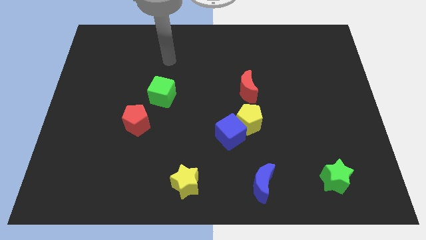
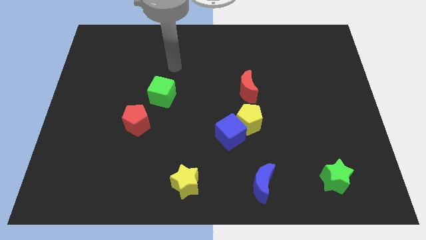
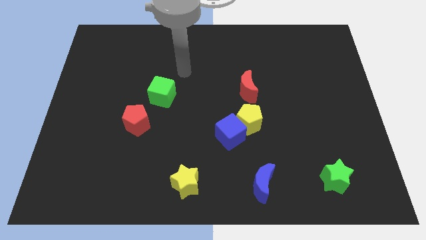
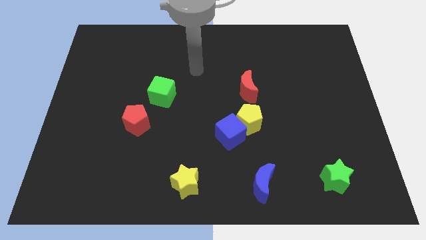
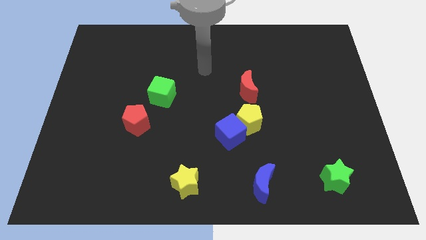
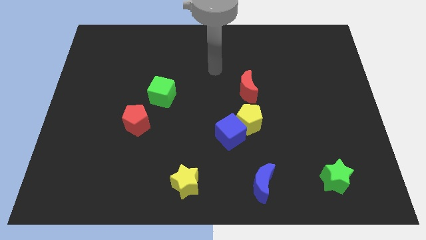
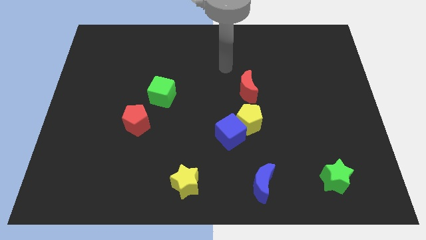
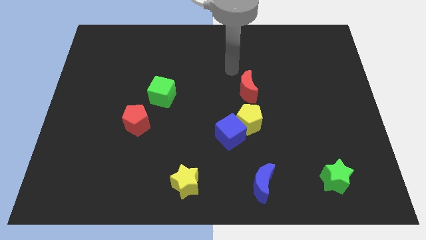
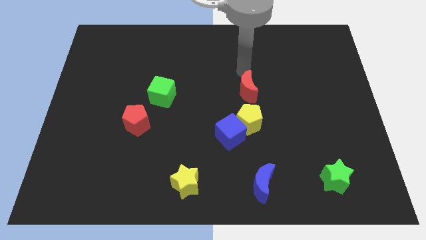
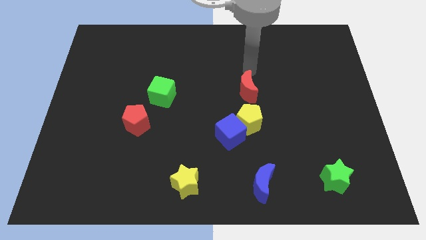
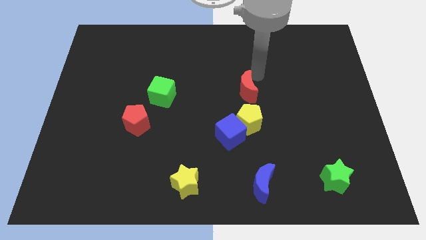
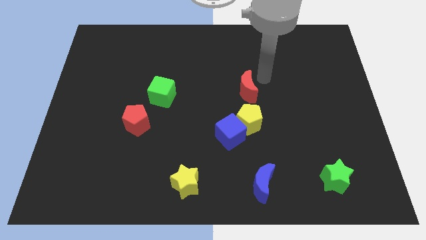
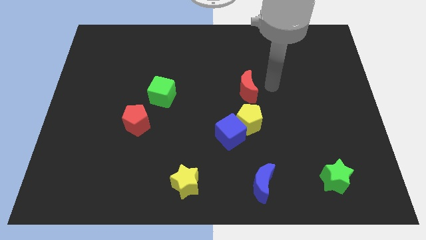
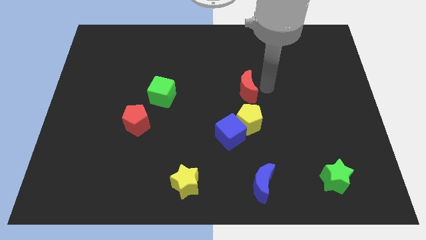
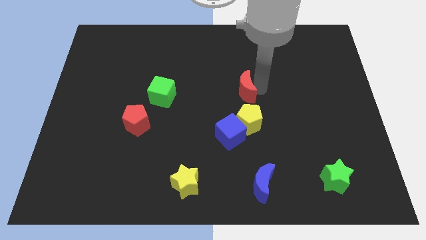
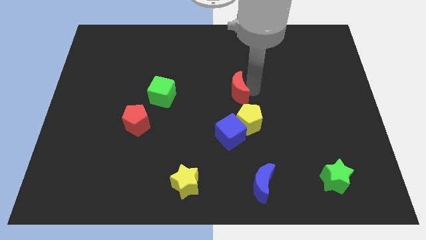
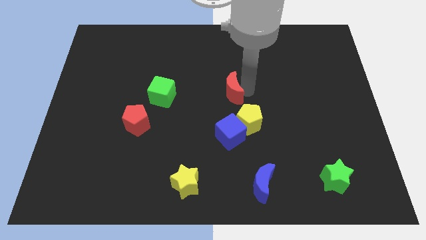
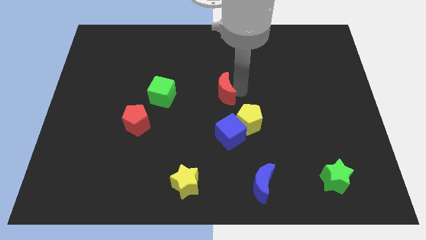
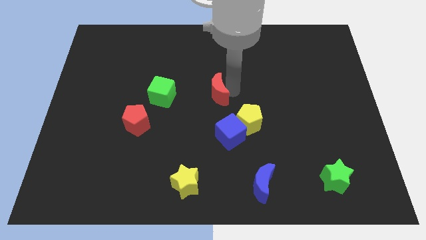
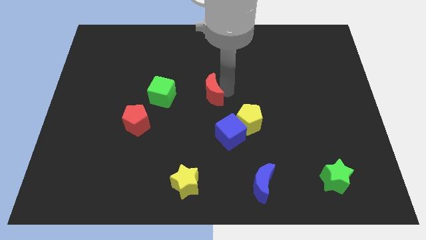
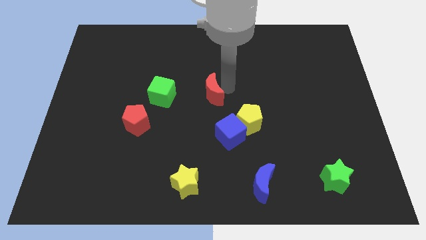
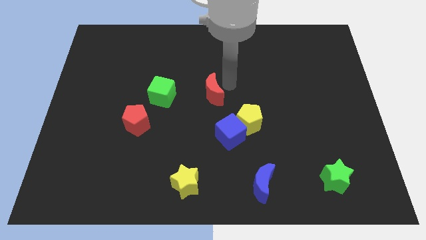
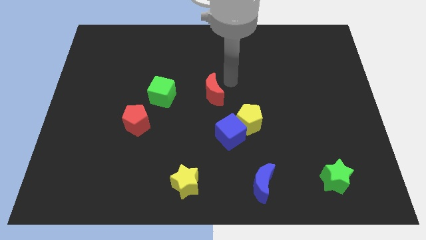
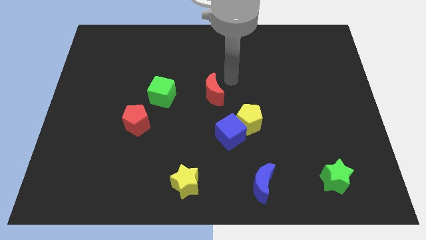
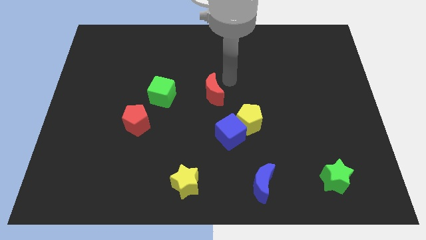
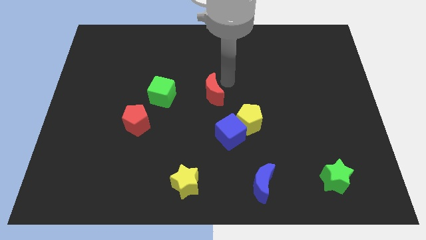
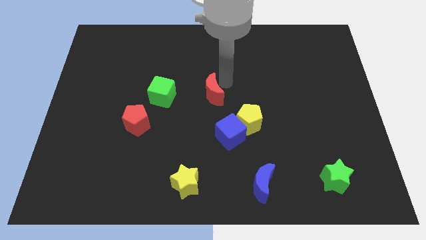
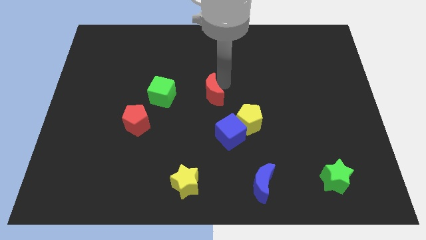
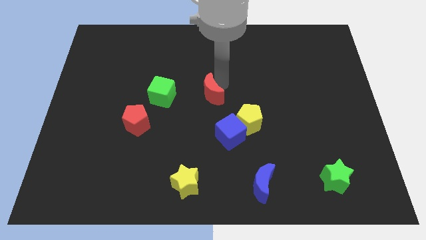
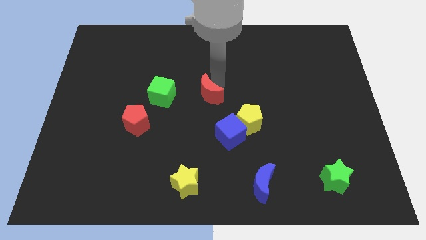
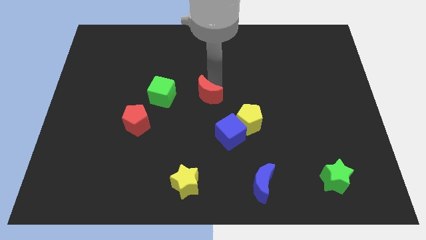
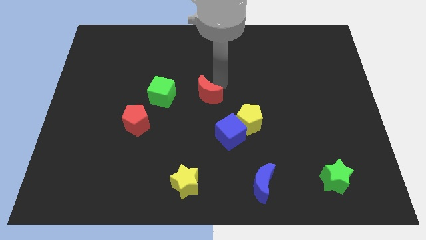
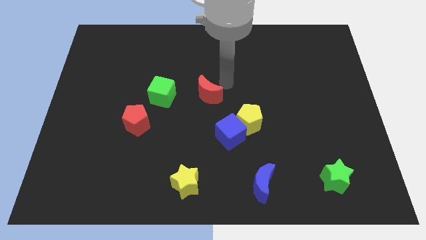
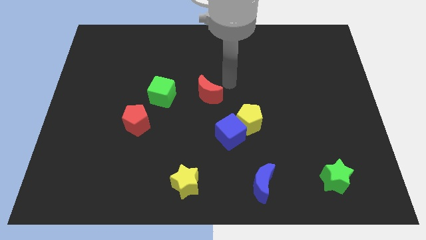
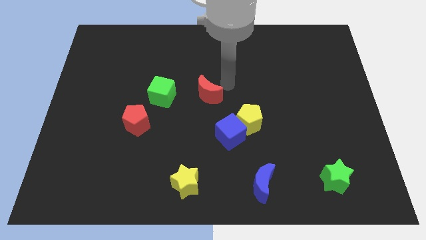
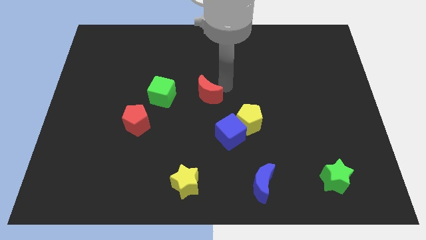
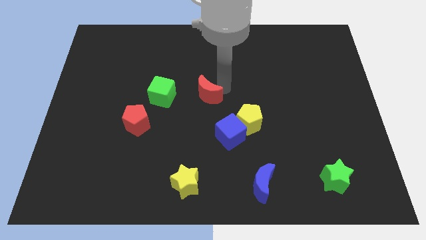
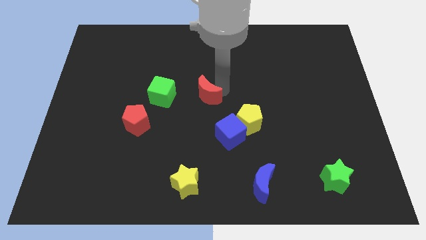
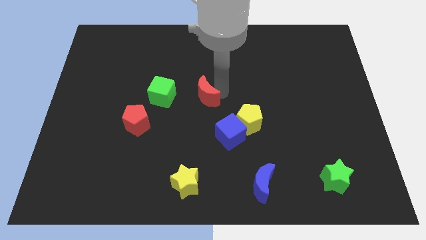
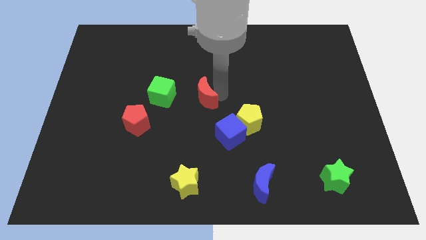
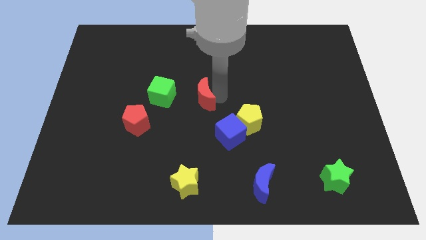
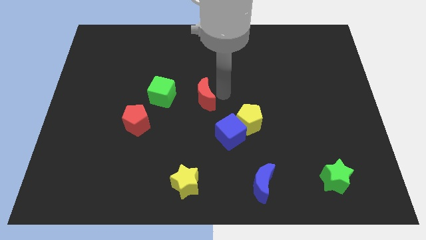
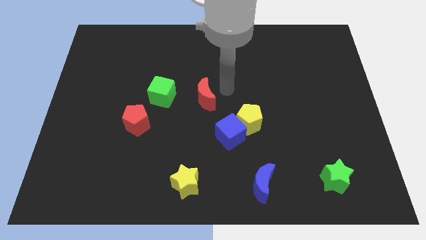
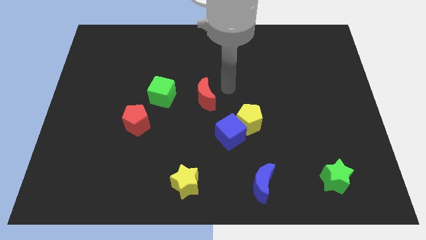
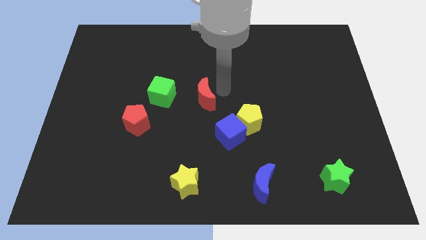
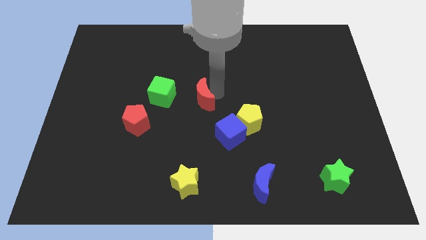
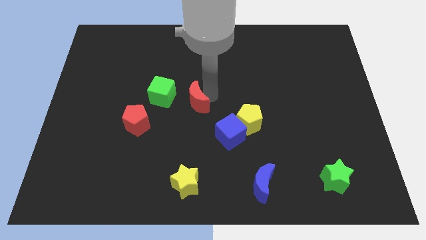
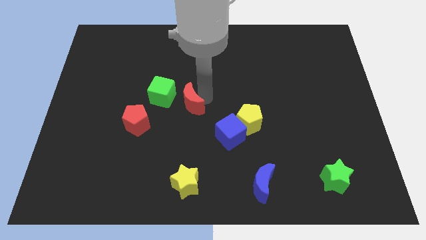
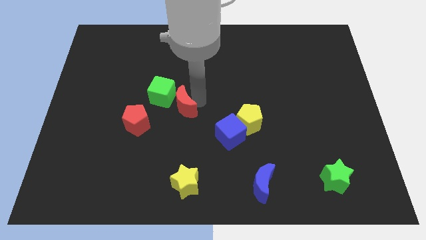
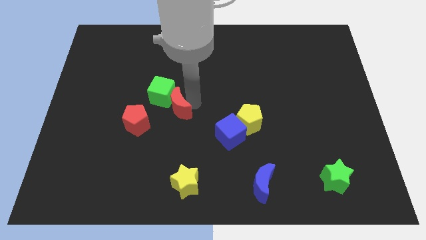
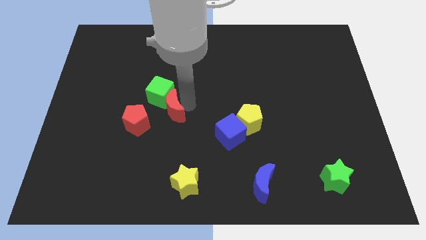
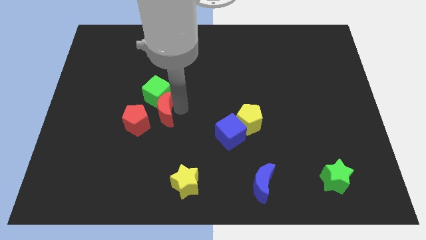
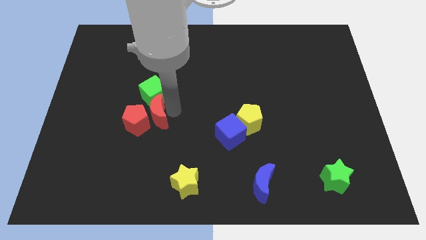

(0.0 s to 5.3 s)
put the red moon towards the red pentagon

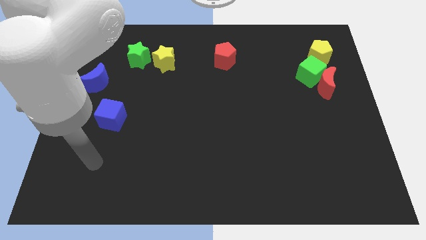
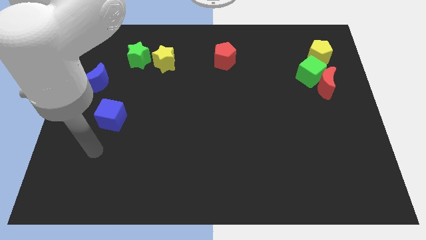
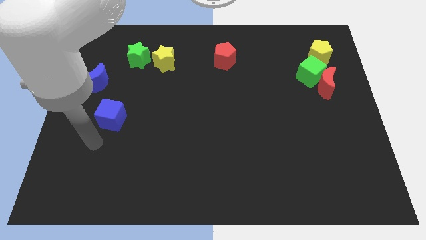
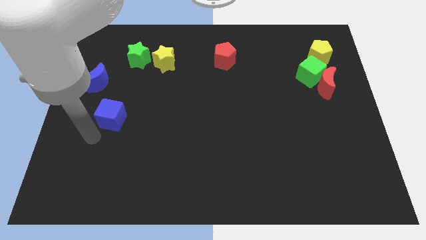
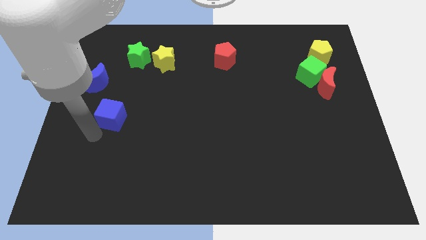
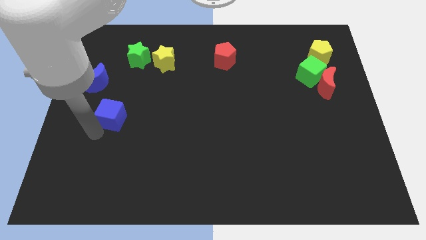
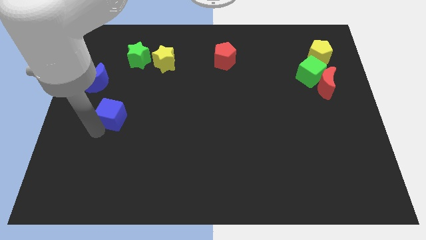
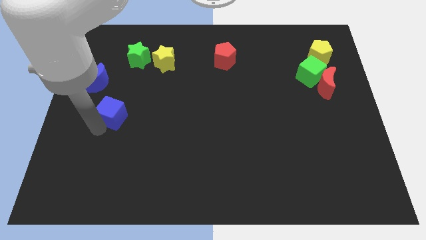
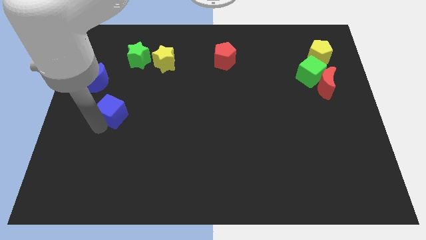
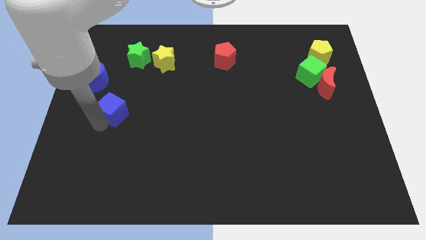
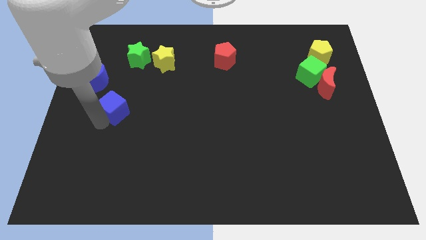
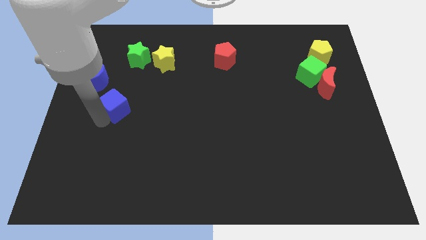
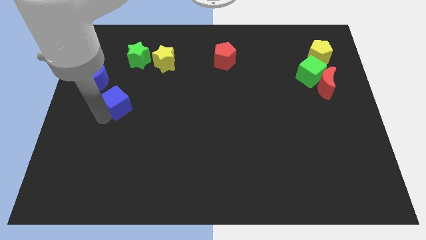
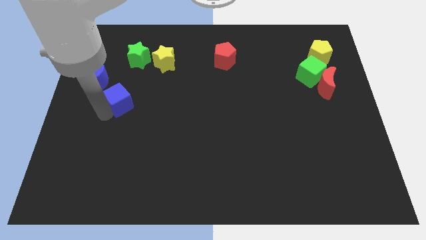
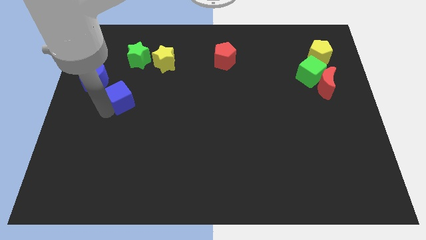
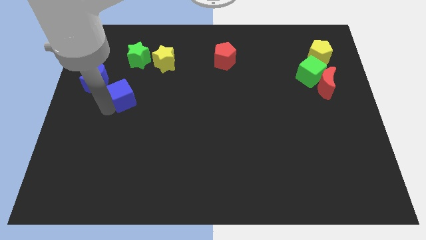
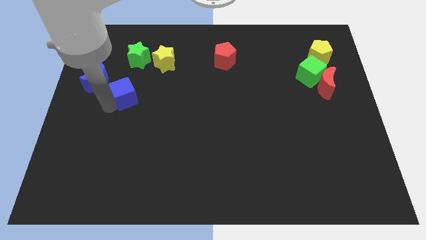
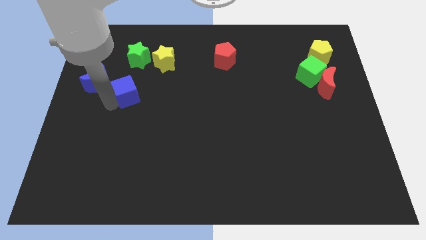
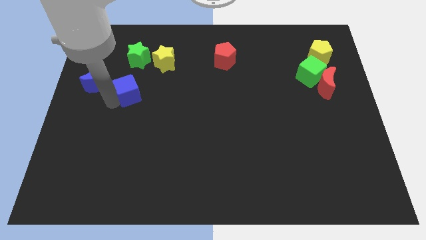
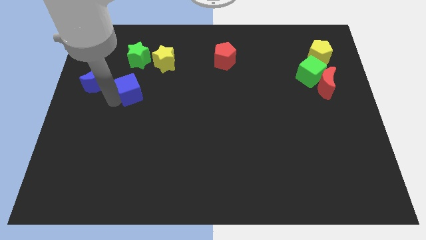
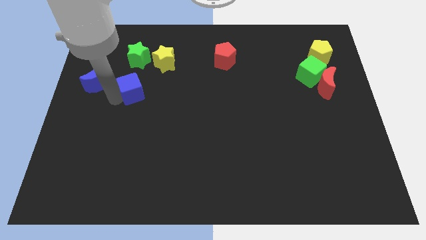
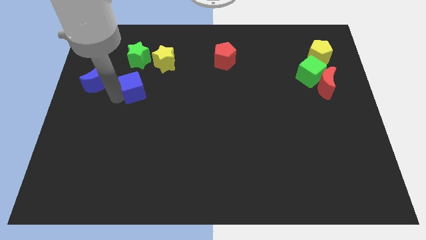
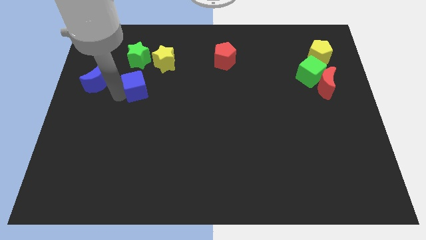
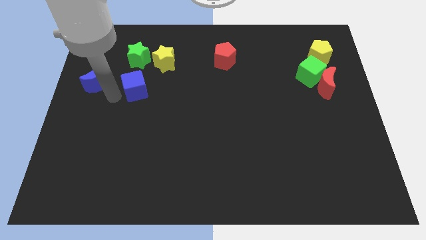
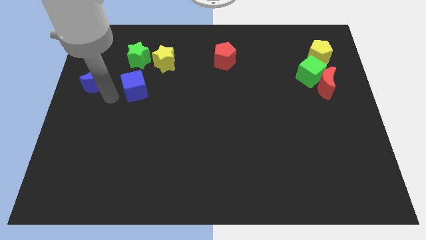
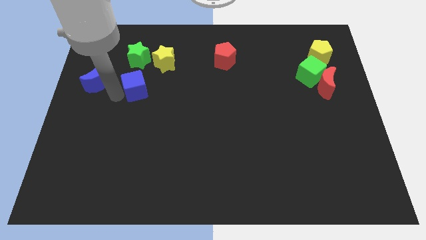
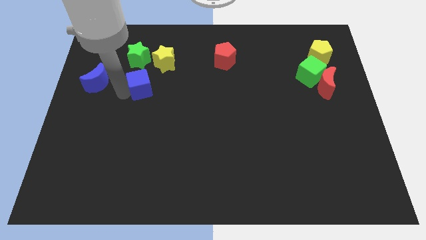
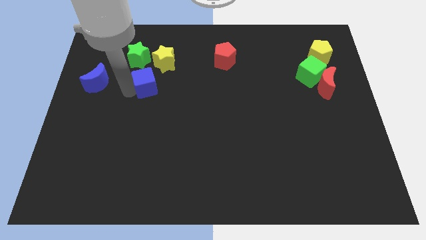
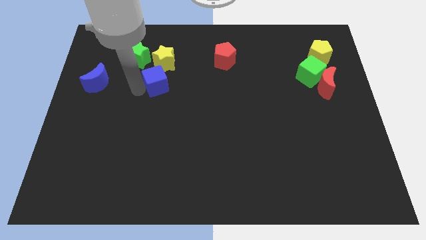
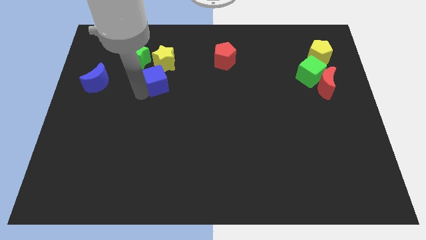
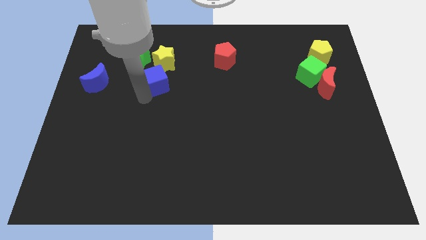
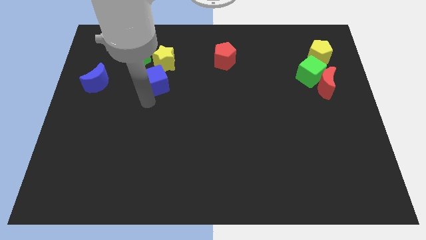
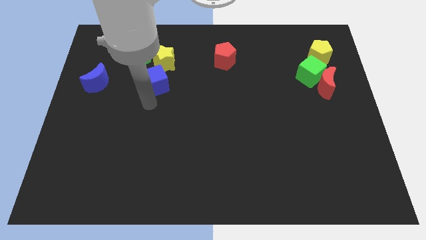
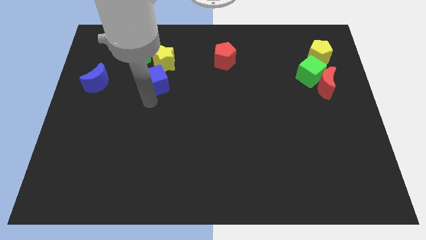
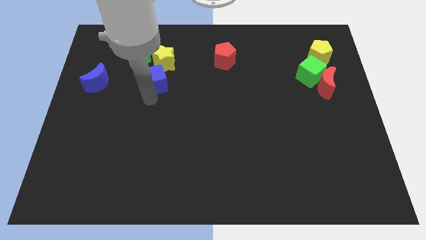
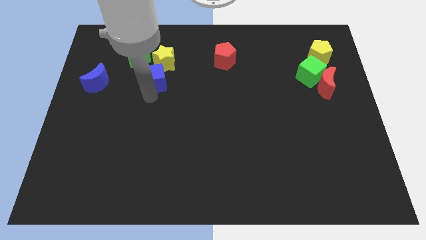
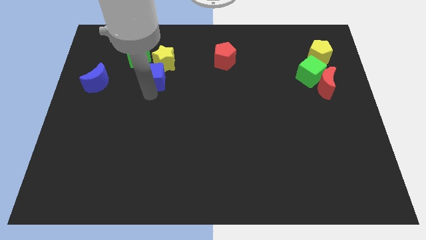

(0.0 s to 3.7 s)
move the blue cube towards the yellow star
